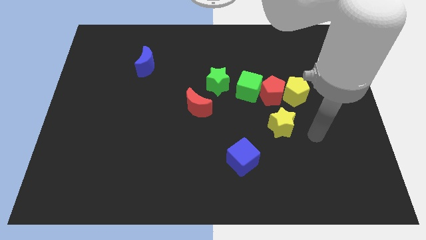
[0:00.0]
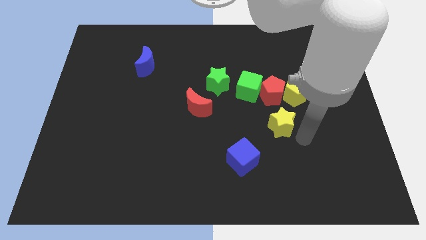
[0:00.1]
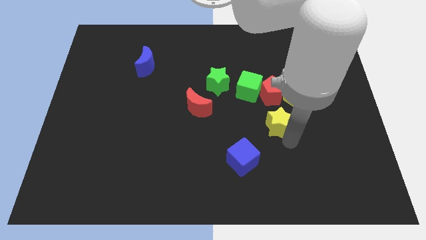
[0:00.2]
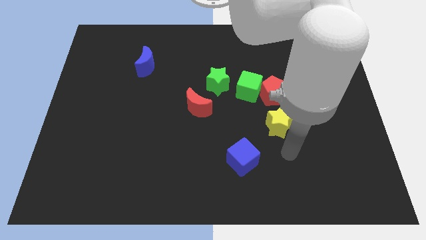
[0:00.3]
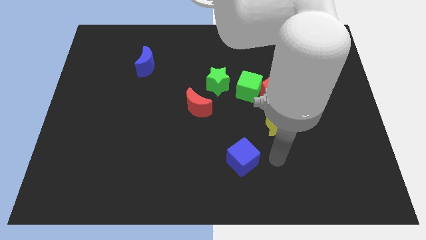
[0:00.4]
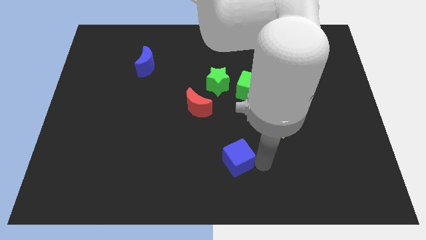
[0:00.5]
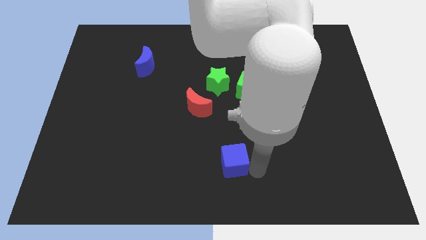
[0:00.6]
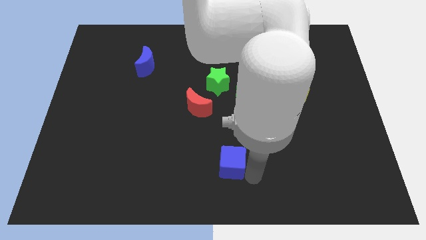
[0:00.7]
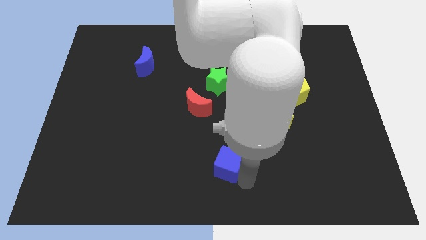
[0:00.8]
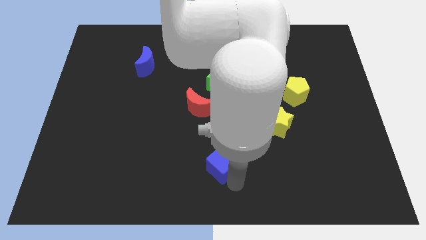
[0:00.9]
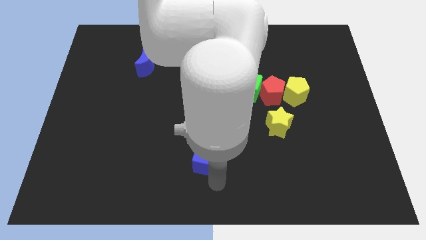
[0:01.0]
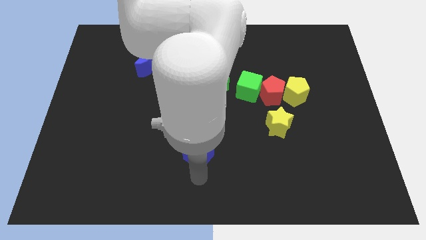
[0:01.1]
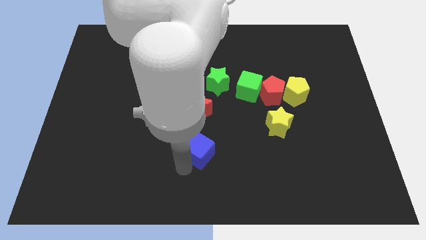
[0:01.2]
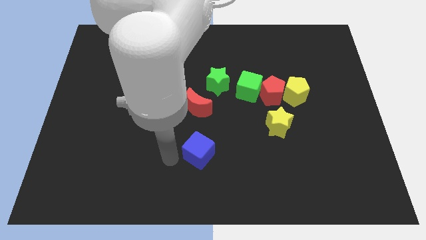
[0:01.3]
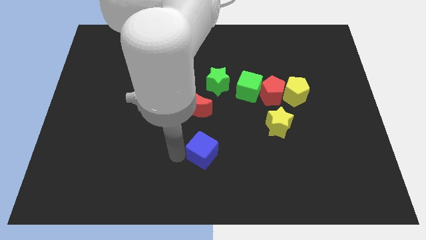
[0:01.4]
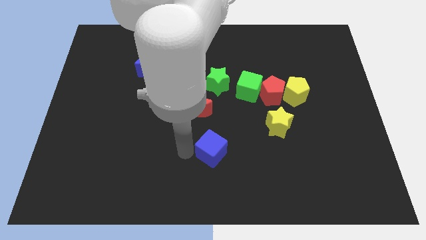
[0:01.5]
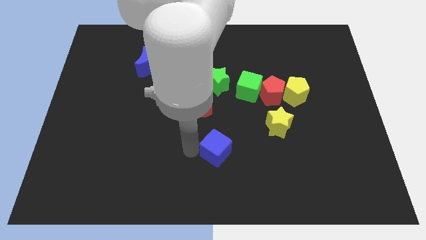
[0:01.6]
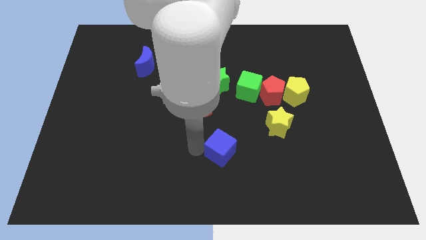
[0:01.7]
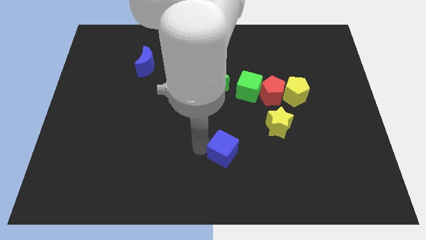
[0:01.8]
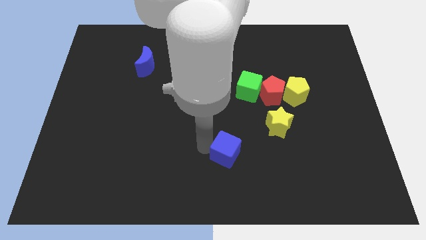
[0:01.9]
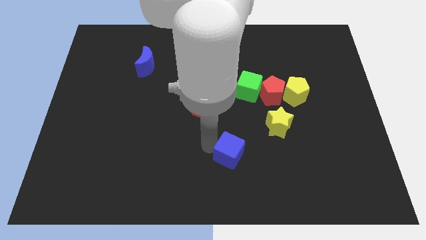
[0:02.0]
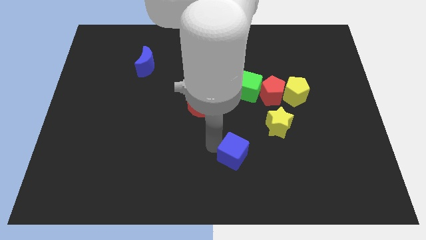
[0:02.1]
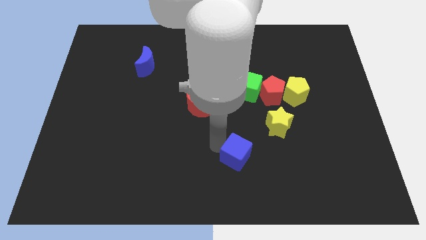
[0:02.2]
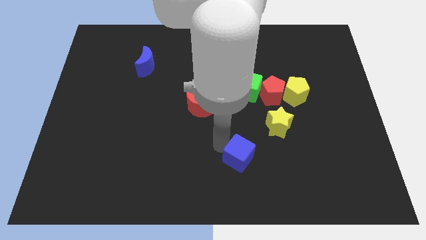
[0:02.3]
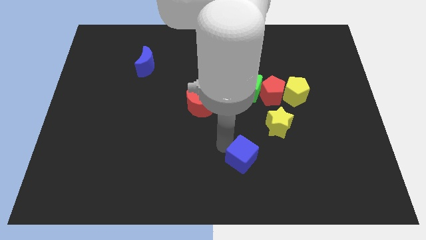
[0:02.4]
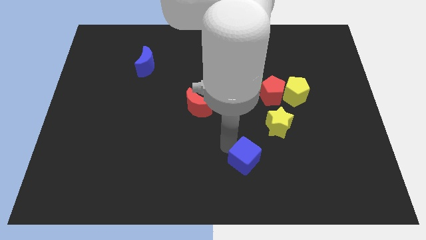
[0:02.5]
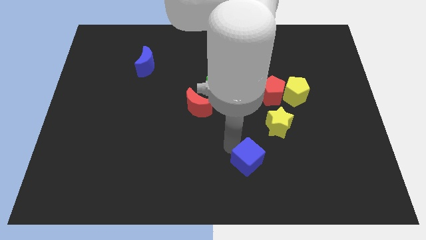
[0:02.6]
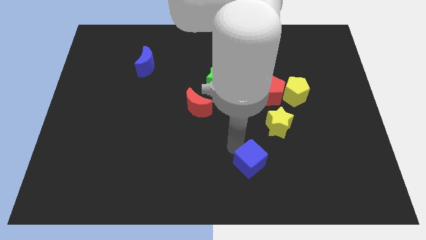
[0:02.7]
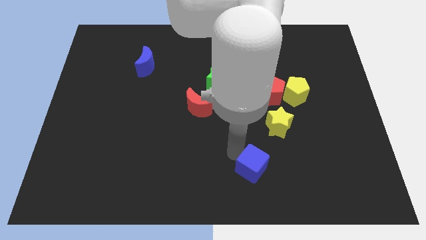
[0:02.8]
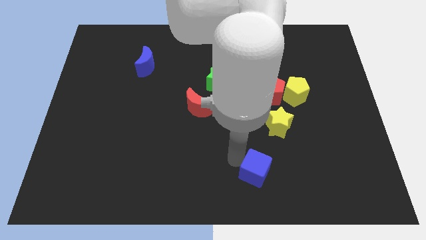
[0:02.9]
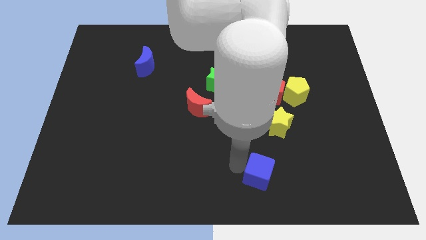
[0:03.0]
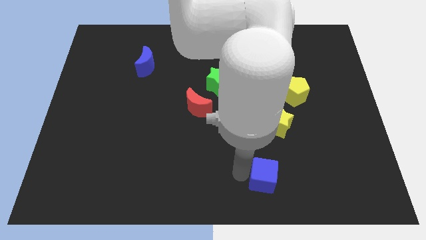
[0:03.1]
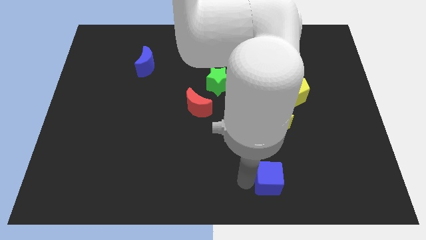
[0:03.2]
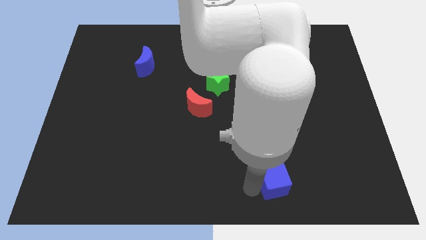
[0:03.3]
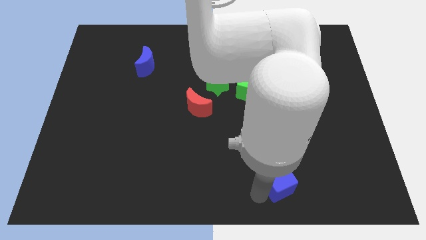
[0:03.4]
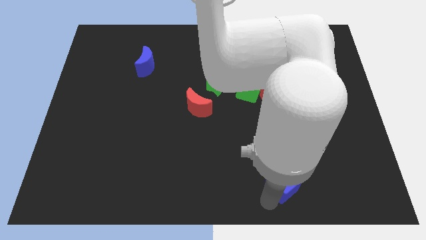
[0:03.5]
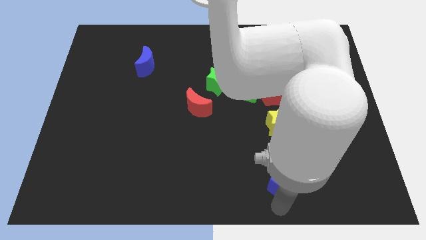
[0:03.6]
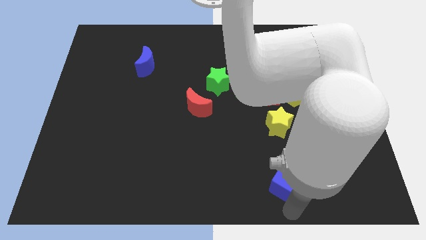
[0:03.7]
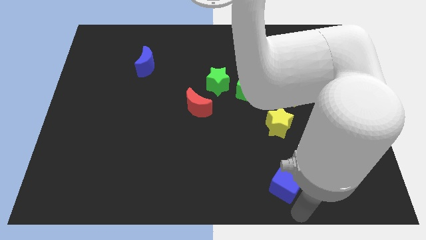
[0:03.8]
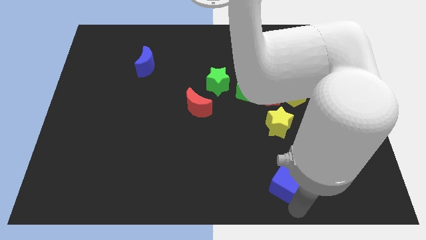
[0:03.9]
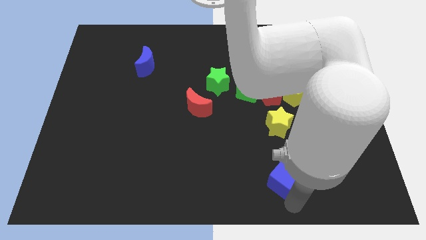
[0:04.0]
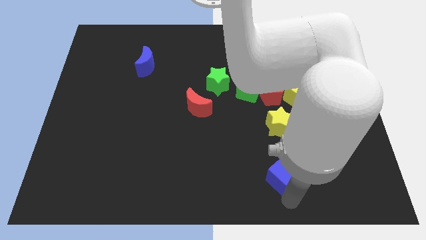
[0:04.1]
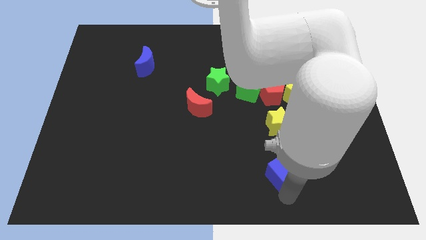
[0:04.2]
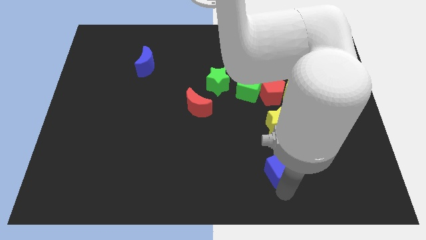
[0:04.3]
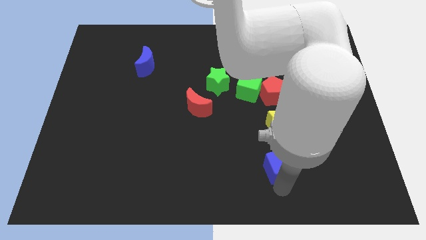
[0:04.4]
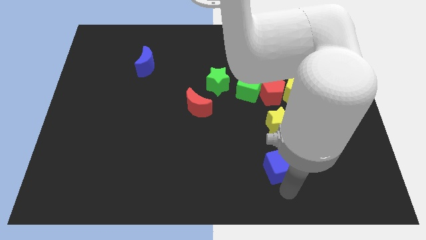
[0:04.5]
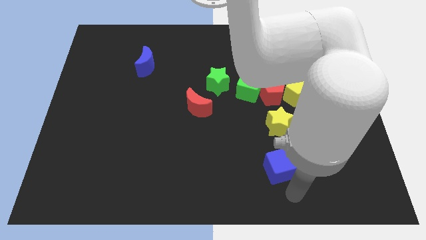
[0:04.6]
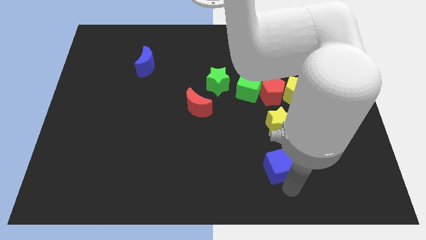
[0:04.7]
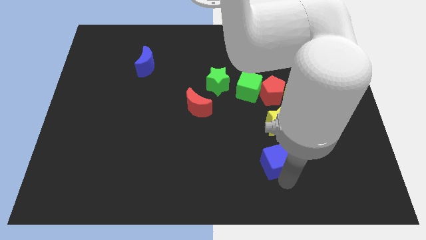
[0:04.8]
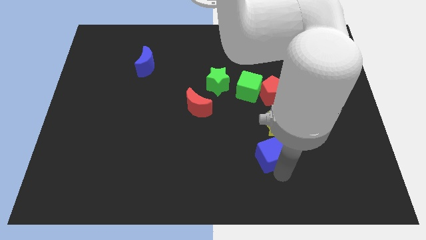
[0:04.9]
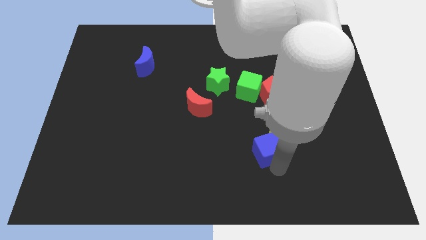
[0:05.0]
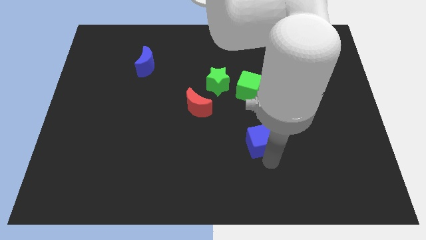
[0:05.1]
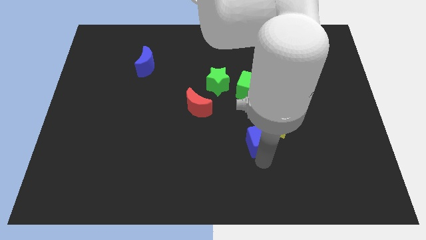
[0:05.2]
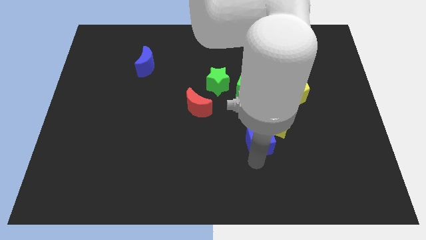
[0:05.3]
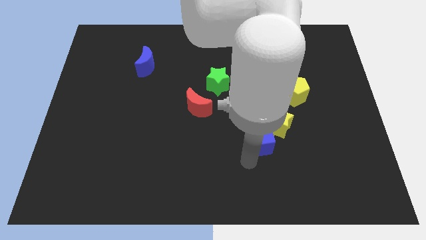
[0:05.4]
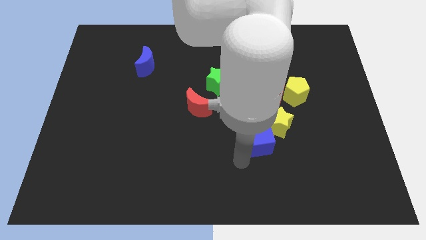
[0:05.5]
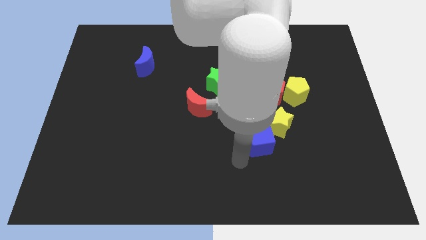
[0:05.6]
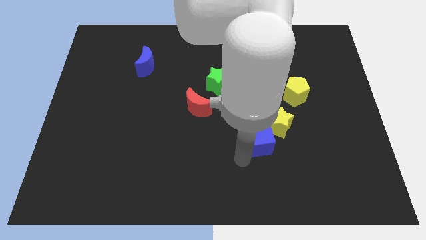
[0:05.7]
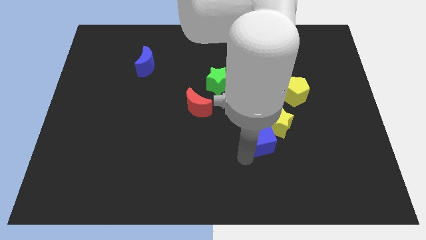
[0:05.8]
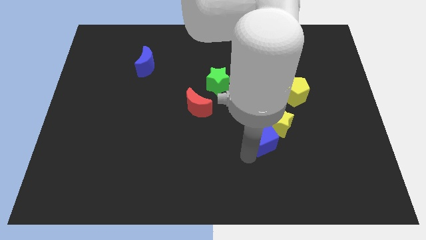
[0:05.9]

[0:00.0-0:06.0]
slide the blue cube towards the yellow star

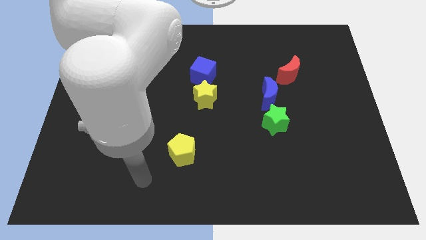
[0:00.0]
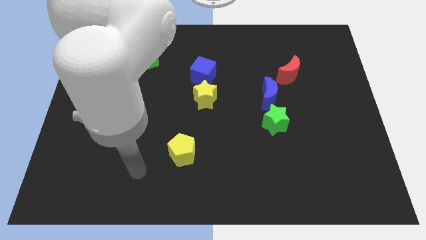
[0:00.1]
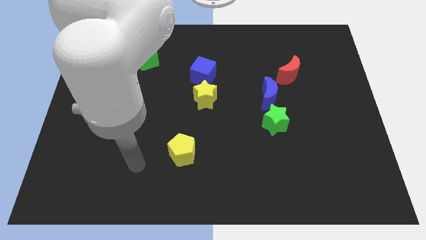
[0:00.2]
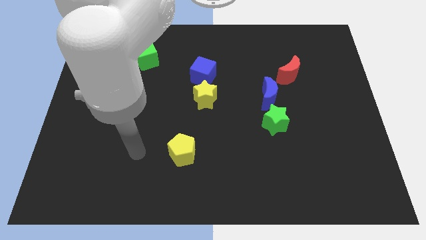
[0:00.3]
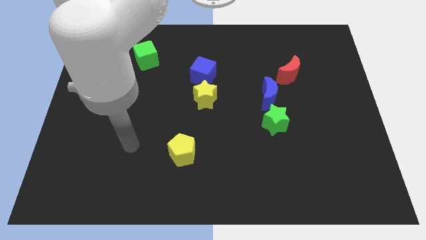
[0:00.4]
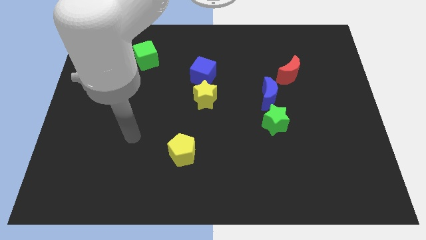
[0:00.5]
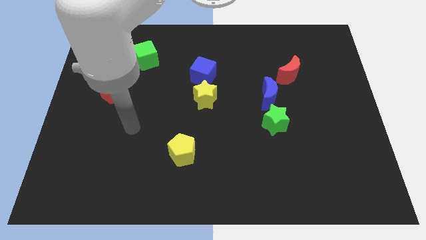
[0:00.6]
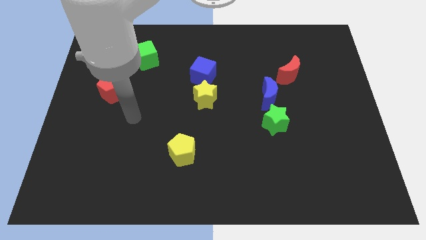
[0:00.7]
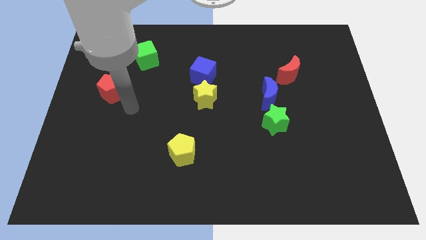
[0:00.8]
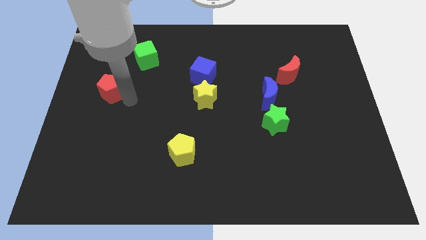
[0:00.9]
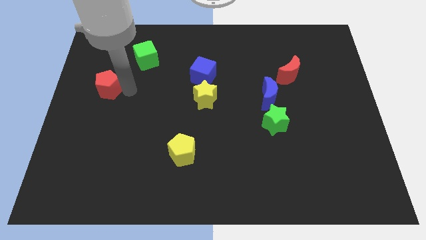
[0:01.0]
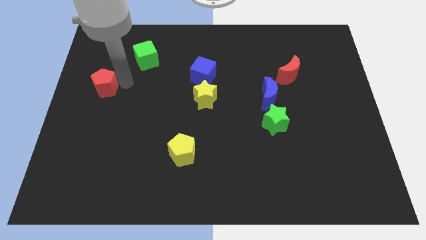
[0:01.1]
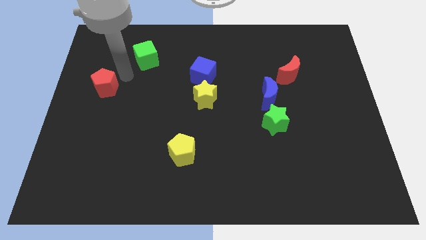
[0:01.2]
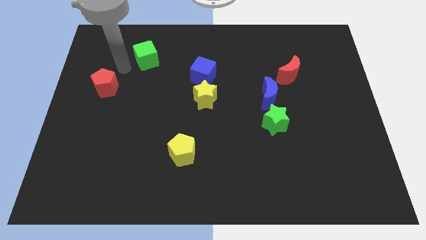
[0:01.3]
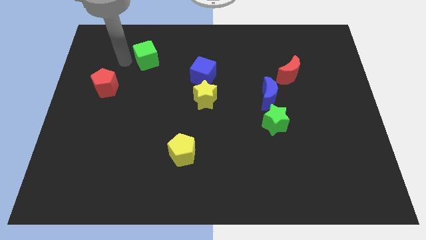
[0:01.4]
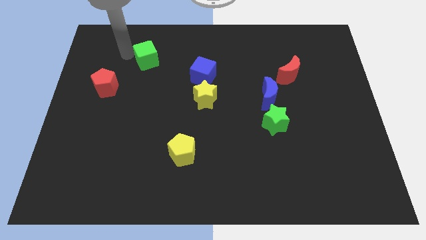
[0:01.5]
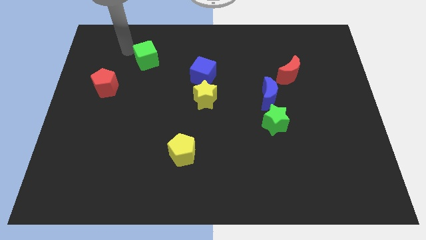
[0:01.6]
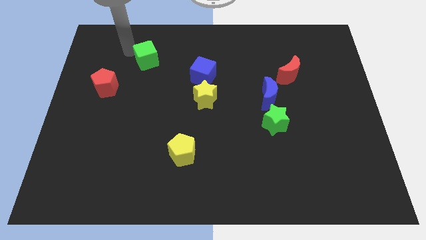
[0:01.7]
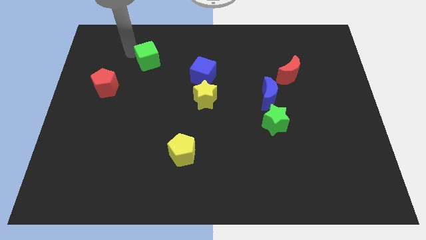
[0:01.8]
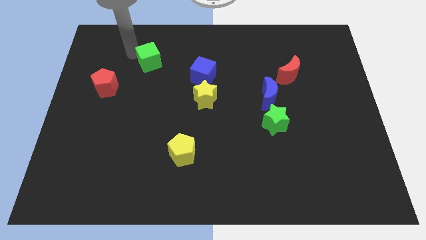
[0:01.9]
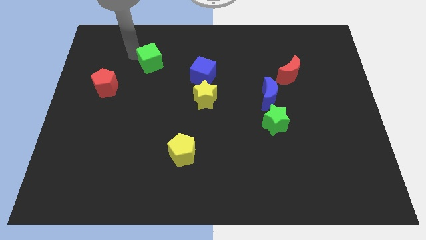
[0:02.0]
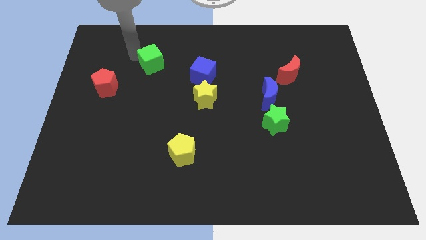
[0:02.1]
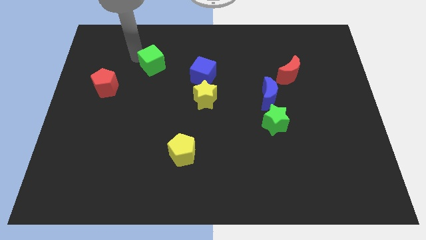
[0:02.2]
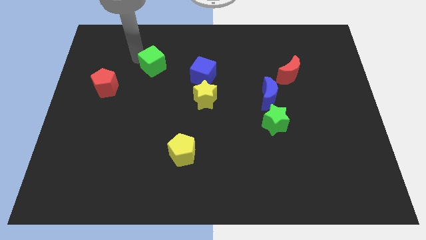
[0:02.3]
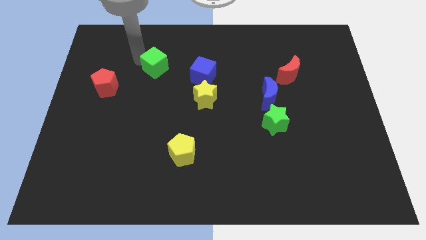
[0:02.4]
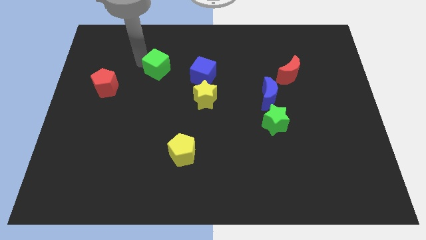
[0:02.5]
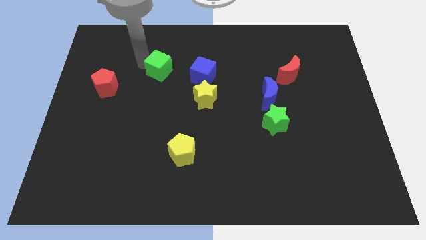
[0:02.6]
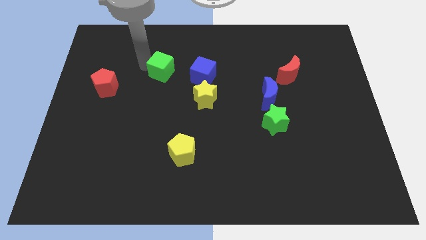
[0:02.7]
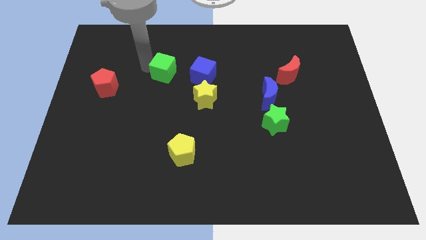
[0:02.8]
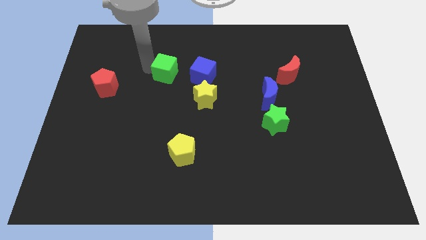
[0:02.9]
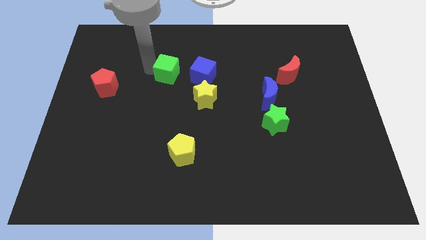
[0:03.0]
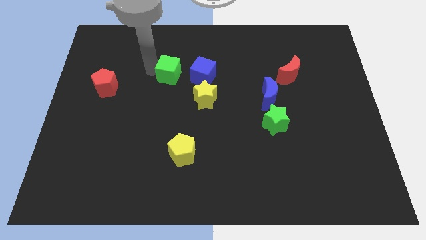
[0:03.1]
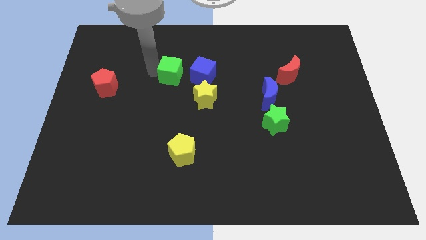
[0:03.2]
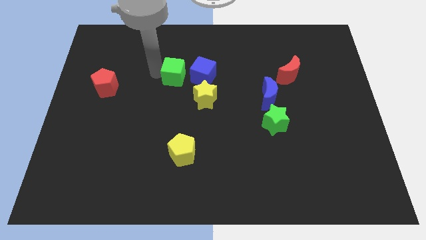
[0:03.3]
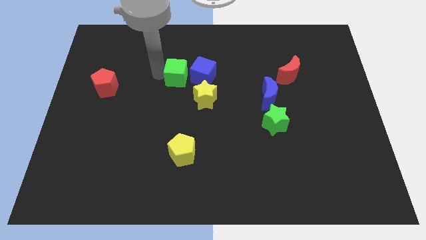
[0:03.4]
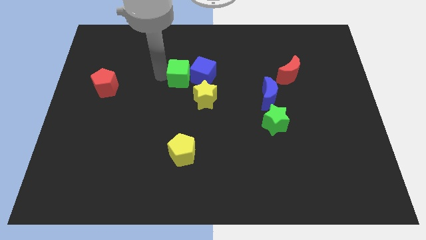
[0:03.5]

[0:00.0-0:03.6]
slide the green cube to the blue cube
